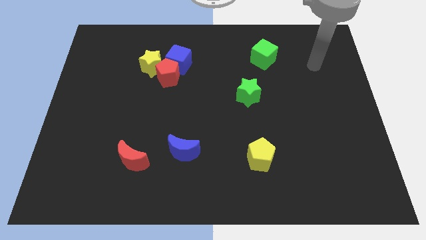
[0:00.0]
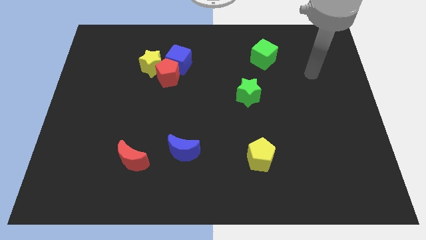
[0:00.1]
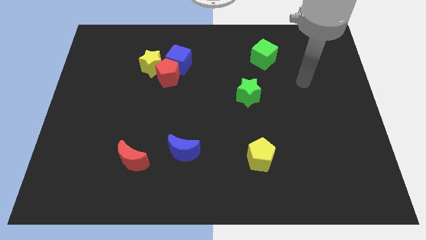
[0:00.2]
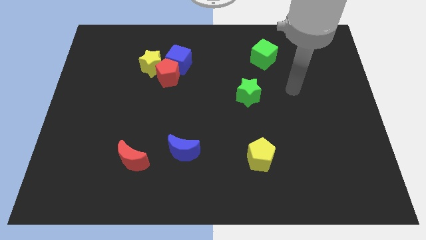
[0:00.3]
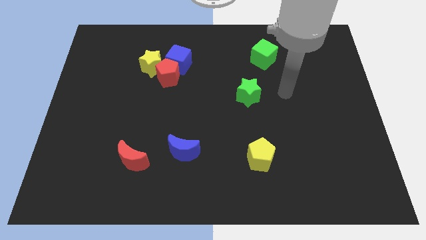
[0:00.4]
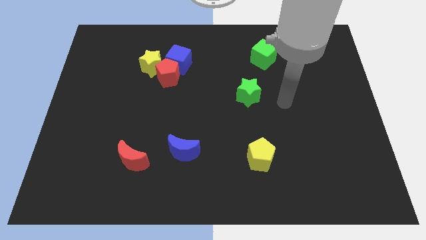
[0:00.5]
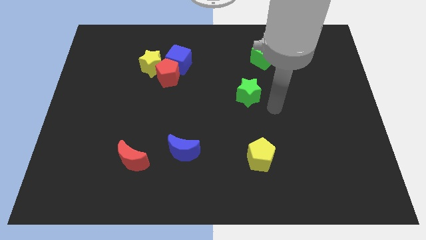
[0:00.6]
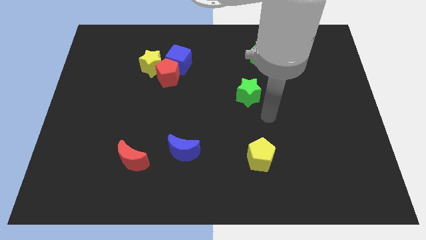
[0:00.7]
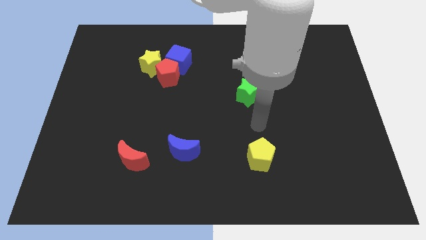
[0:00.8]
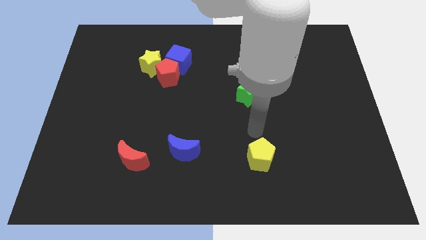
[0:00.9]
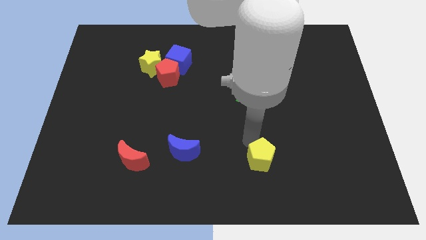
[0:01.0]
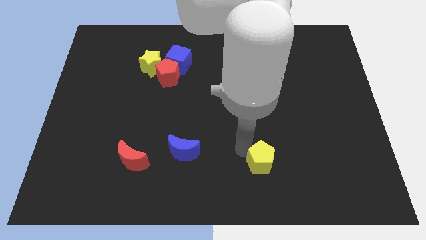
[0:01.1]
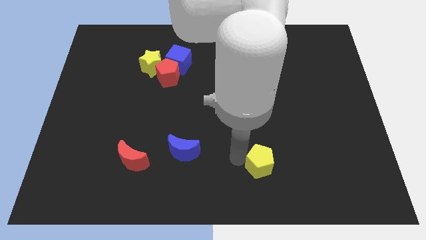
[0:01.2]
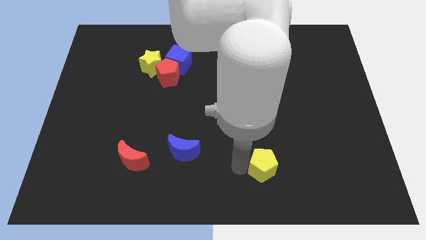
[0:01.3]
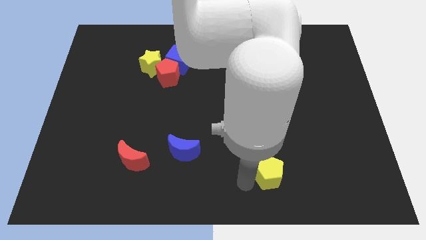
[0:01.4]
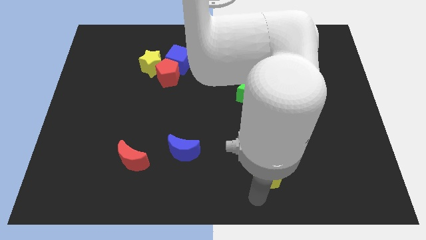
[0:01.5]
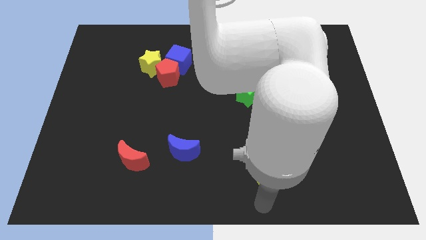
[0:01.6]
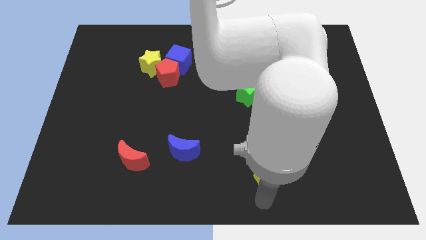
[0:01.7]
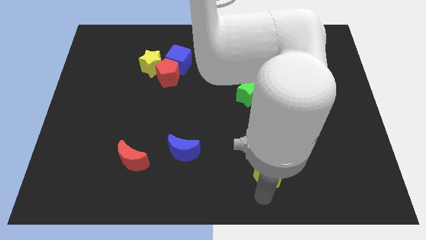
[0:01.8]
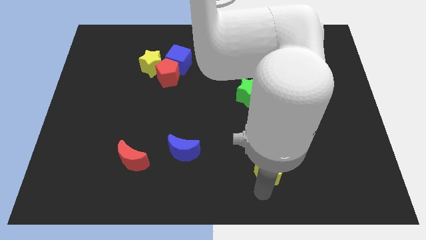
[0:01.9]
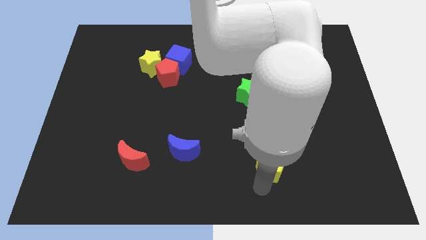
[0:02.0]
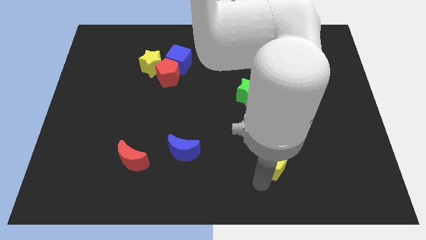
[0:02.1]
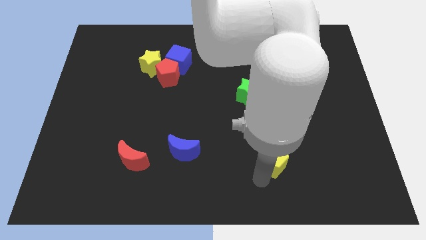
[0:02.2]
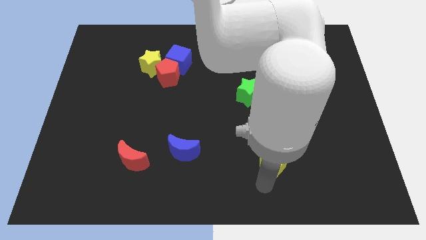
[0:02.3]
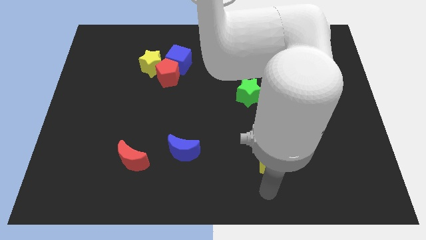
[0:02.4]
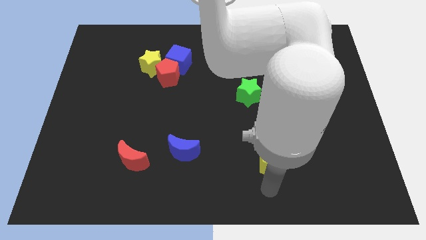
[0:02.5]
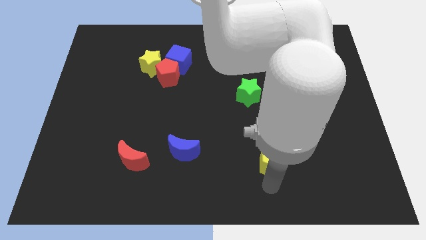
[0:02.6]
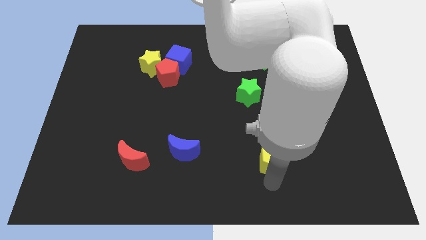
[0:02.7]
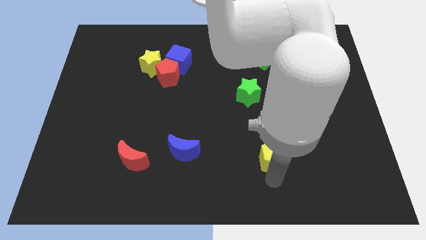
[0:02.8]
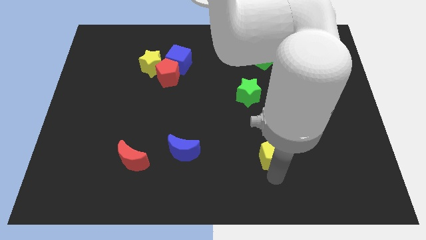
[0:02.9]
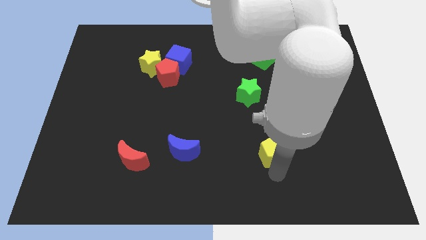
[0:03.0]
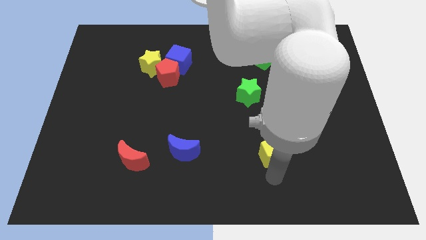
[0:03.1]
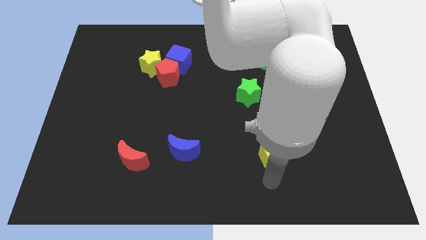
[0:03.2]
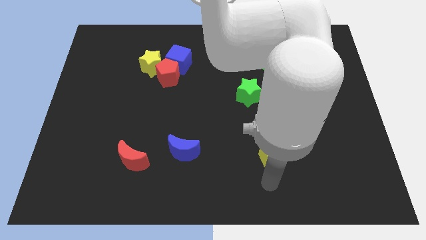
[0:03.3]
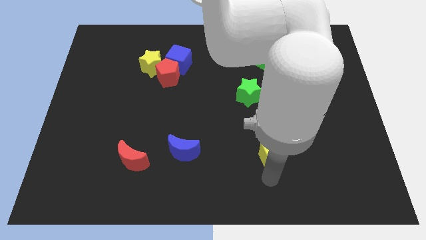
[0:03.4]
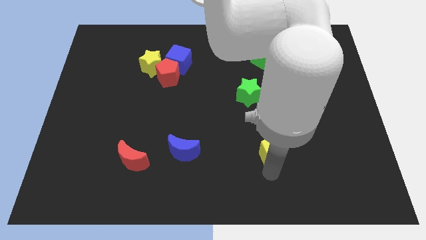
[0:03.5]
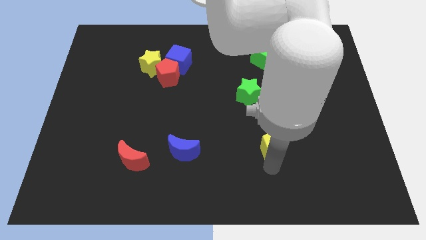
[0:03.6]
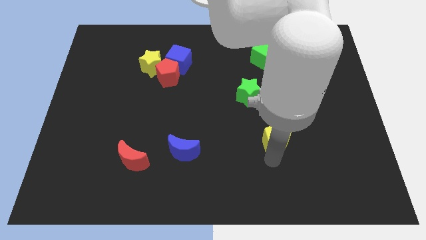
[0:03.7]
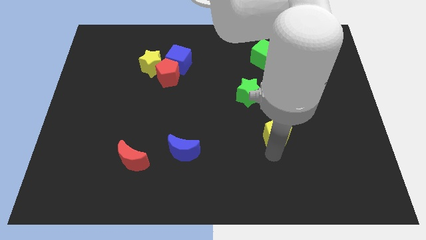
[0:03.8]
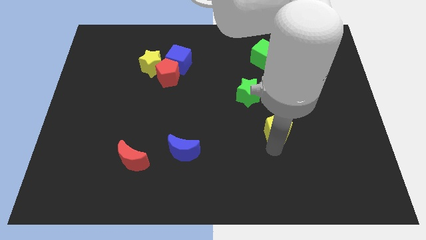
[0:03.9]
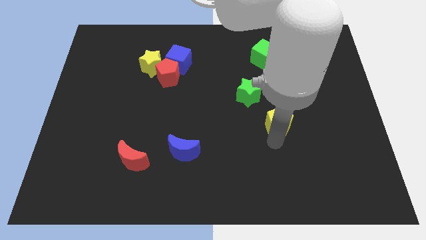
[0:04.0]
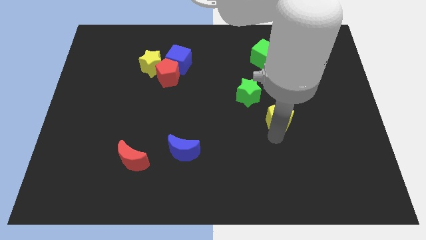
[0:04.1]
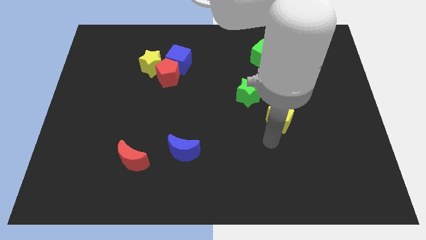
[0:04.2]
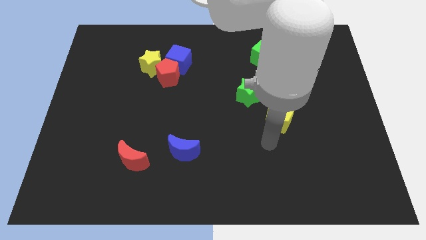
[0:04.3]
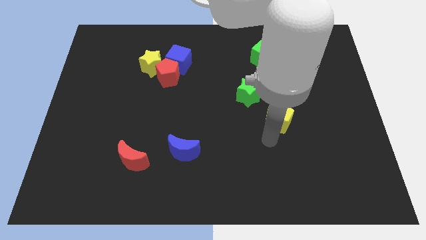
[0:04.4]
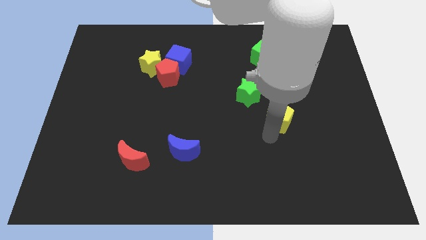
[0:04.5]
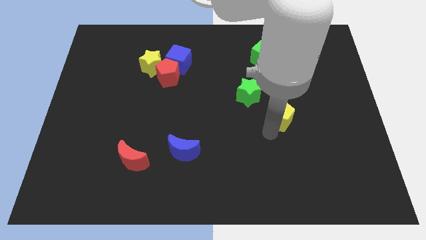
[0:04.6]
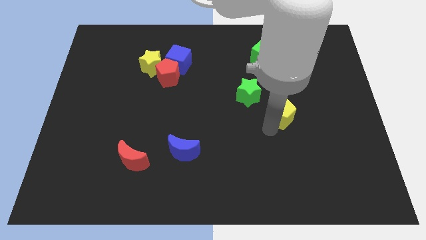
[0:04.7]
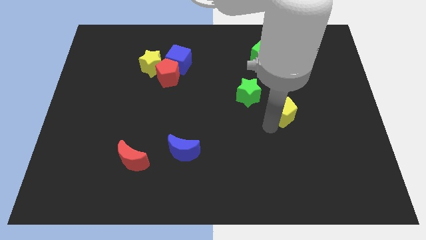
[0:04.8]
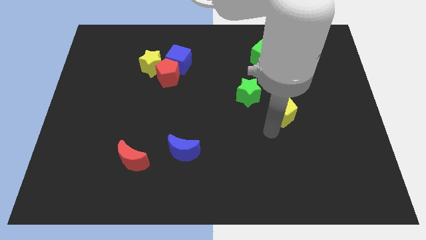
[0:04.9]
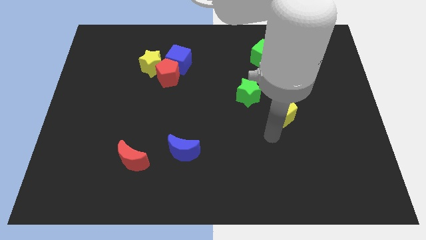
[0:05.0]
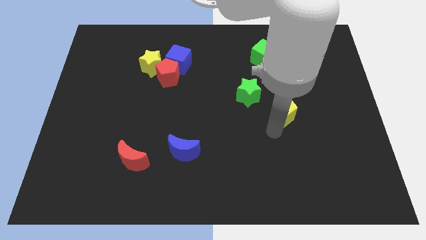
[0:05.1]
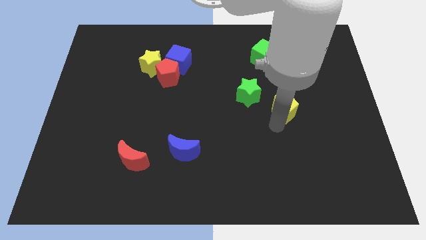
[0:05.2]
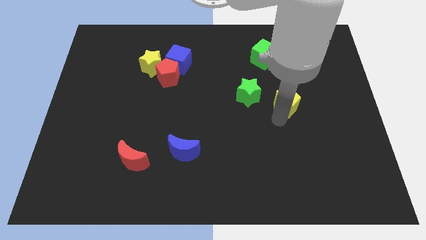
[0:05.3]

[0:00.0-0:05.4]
move the yellow pentagon to the right side of the green star
